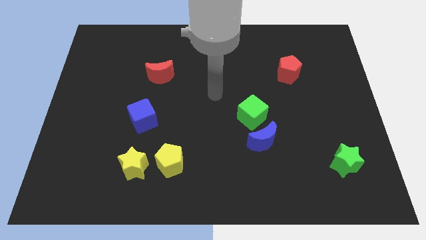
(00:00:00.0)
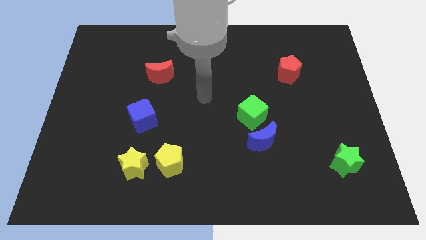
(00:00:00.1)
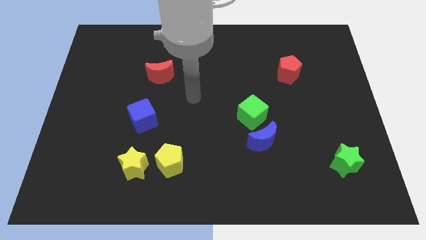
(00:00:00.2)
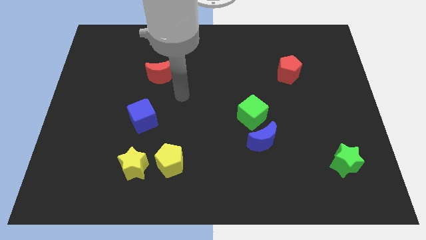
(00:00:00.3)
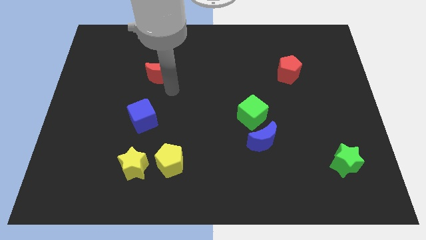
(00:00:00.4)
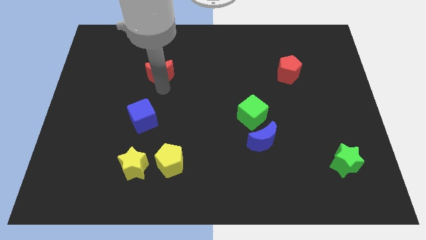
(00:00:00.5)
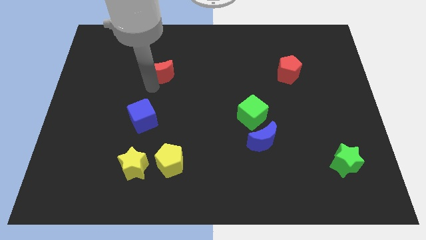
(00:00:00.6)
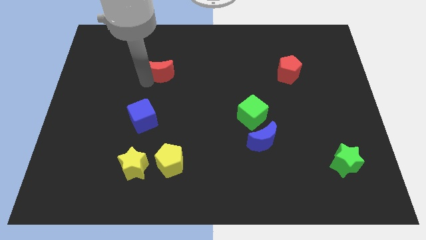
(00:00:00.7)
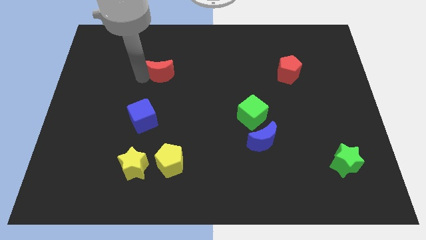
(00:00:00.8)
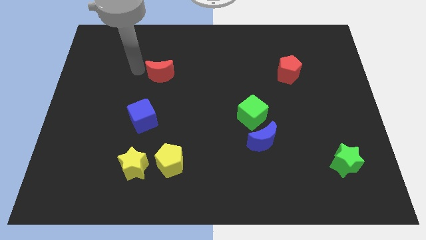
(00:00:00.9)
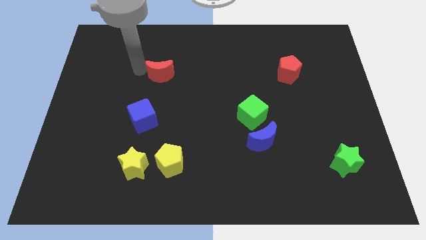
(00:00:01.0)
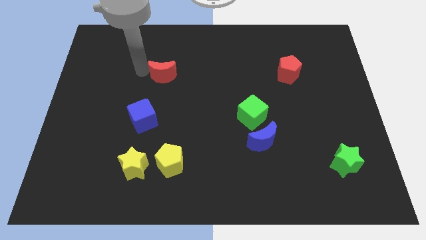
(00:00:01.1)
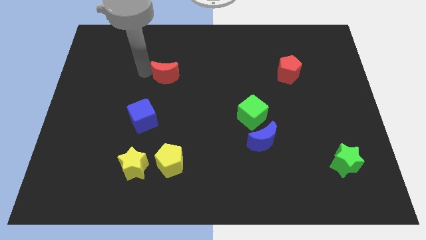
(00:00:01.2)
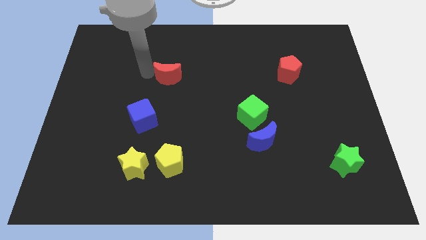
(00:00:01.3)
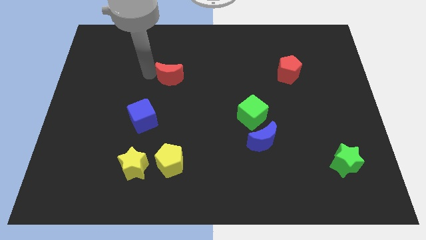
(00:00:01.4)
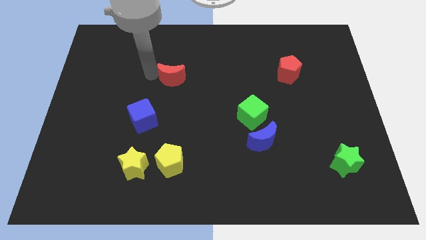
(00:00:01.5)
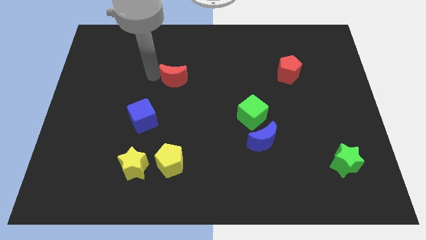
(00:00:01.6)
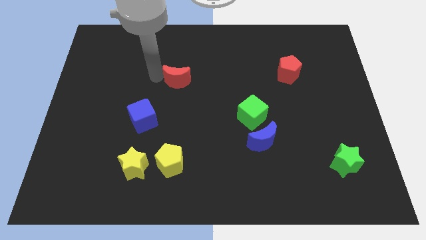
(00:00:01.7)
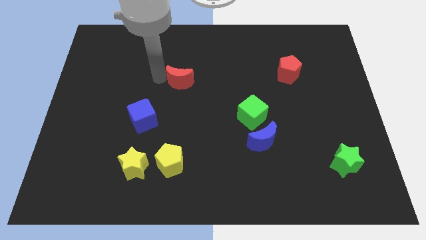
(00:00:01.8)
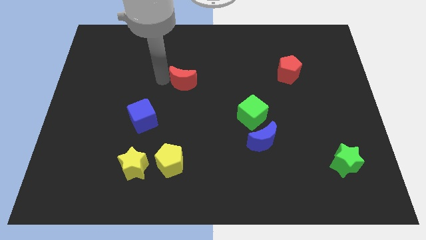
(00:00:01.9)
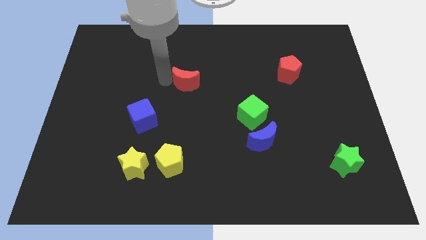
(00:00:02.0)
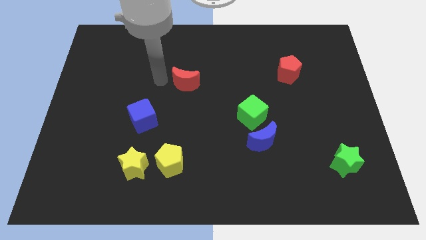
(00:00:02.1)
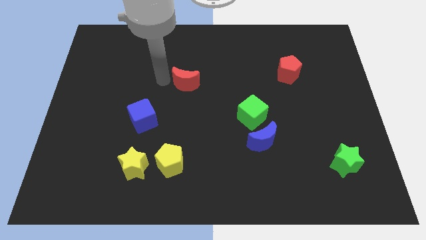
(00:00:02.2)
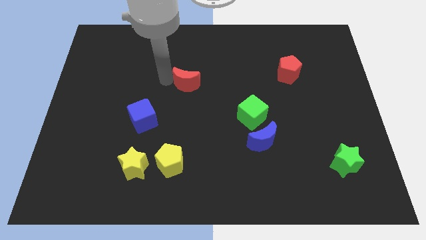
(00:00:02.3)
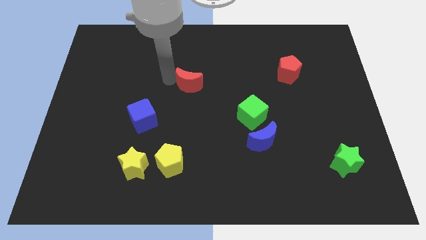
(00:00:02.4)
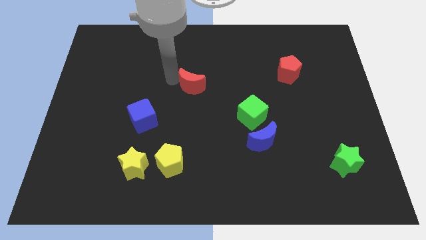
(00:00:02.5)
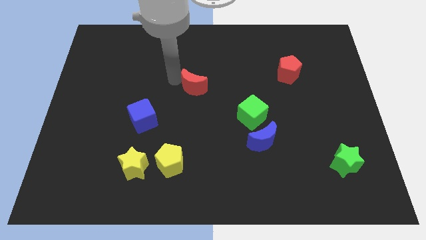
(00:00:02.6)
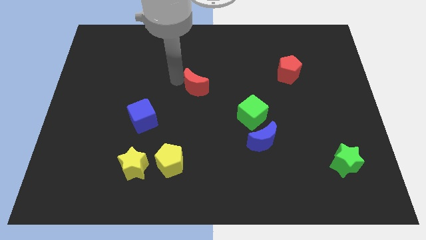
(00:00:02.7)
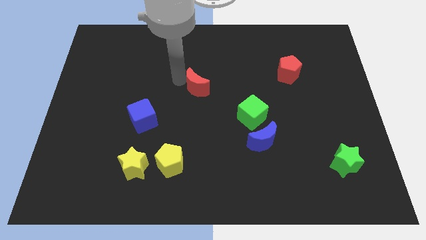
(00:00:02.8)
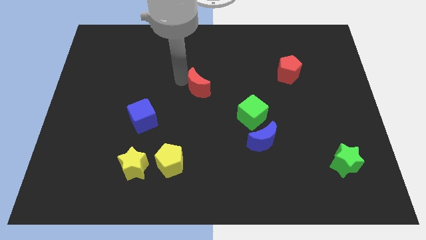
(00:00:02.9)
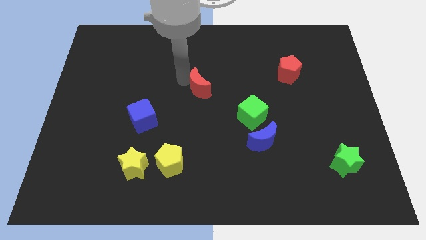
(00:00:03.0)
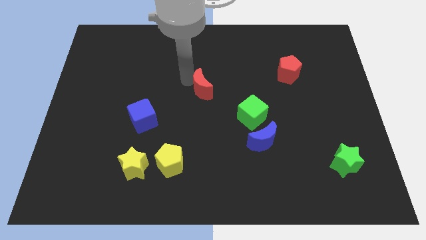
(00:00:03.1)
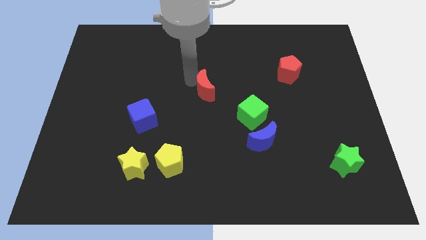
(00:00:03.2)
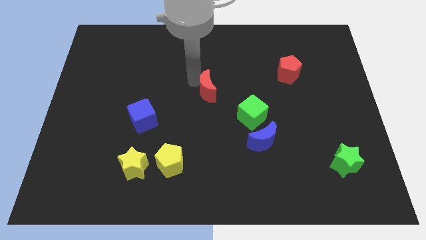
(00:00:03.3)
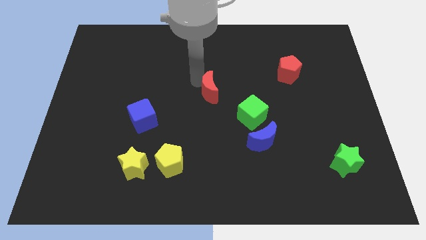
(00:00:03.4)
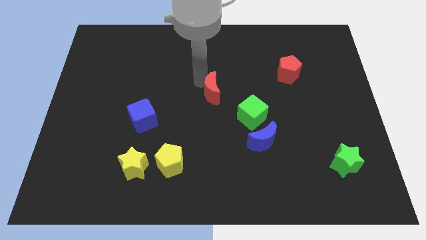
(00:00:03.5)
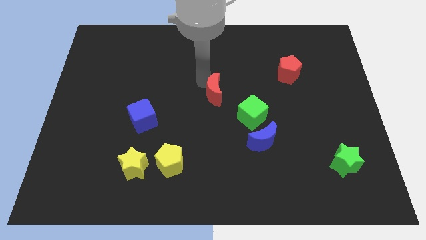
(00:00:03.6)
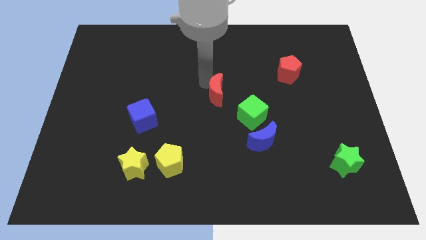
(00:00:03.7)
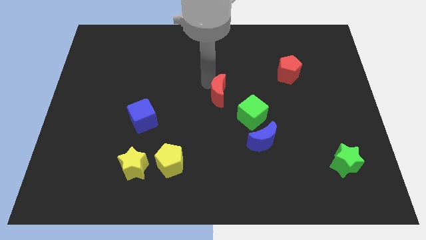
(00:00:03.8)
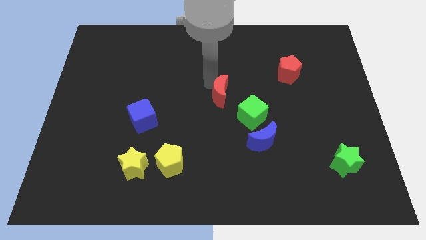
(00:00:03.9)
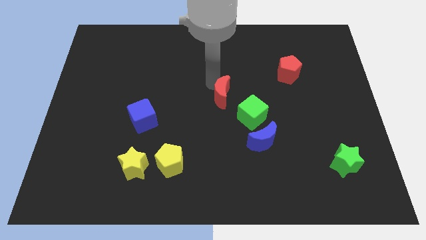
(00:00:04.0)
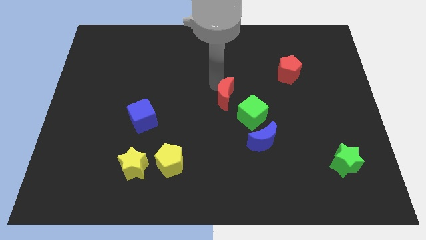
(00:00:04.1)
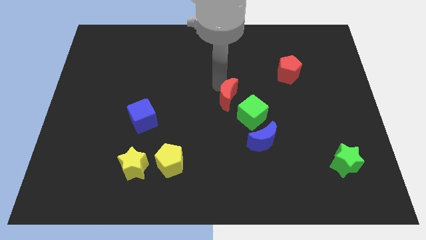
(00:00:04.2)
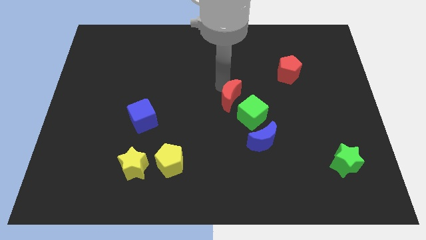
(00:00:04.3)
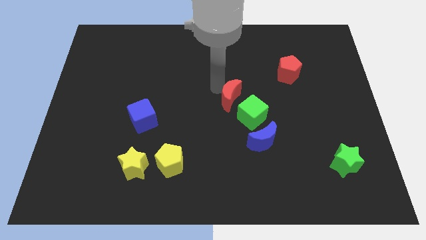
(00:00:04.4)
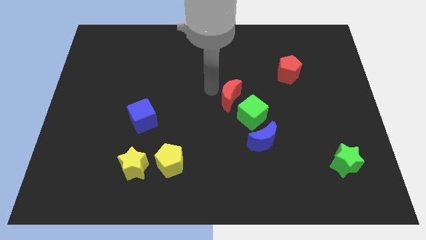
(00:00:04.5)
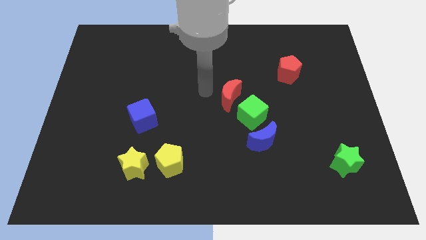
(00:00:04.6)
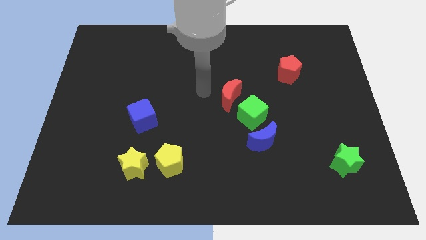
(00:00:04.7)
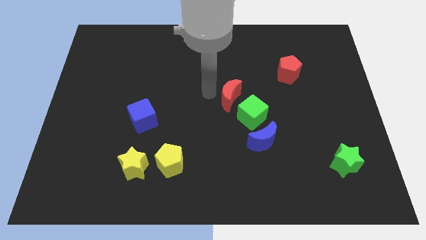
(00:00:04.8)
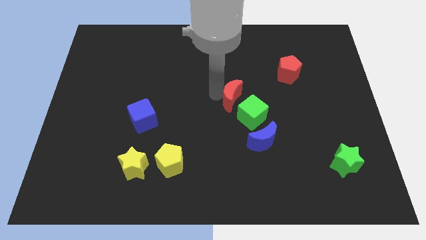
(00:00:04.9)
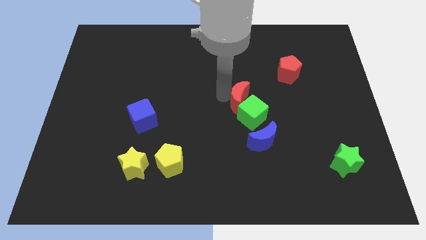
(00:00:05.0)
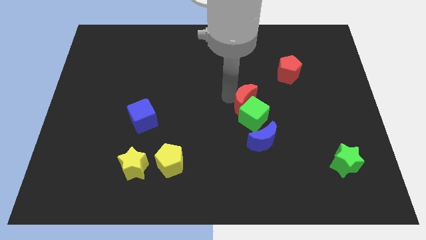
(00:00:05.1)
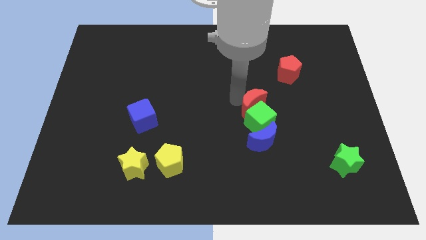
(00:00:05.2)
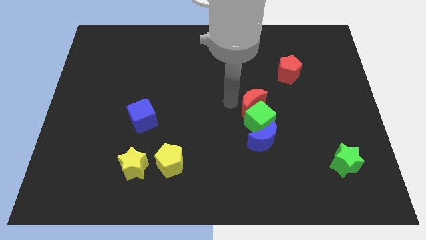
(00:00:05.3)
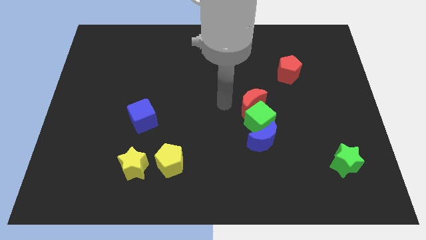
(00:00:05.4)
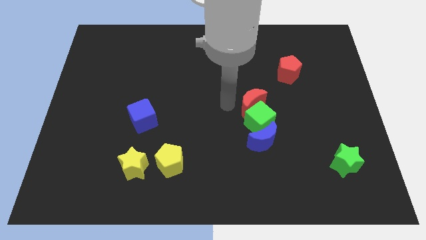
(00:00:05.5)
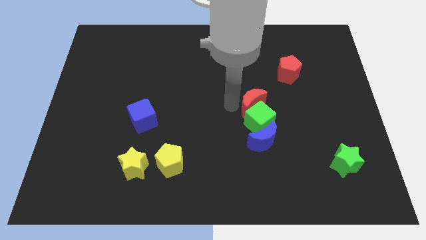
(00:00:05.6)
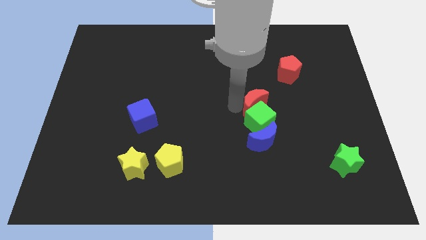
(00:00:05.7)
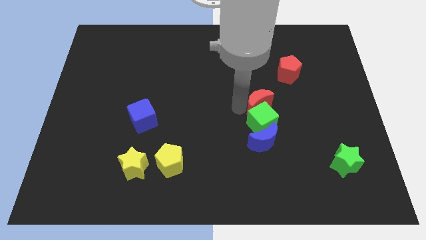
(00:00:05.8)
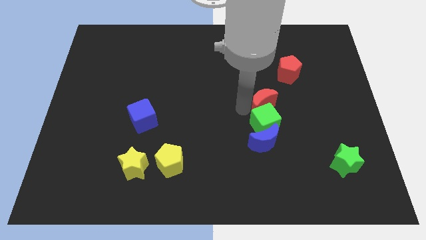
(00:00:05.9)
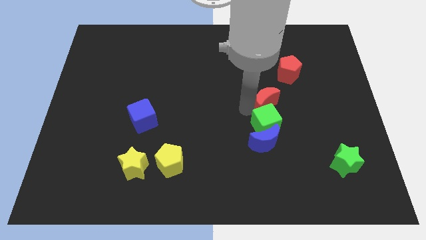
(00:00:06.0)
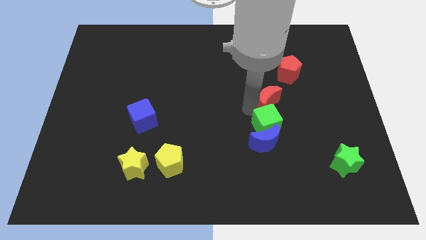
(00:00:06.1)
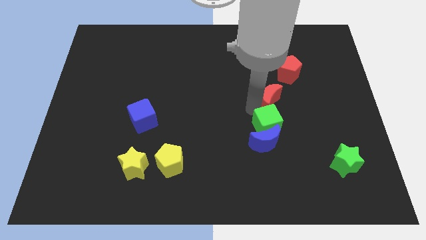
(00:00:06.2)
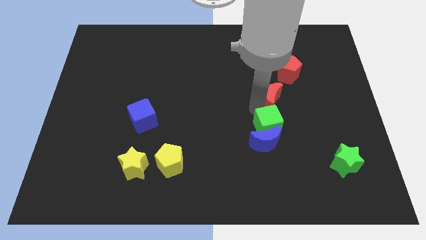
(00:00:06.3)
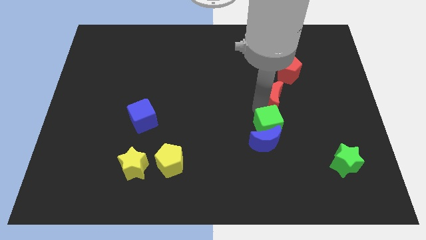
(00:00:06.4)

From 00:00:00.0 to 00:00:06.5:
push the red moon below the red pentagon

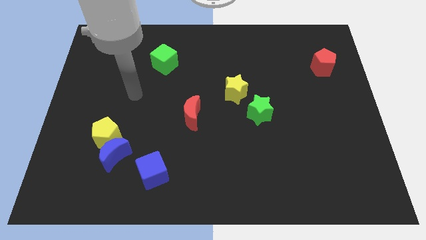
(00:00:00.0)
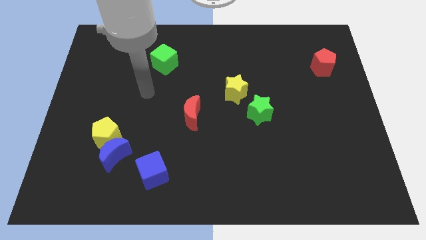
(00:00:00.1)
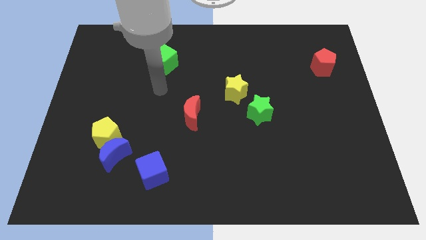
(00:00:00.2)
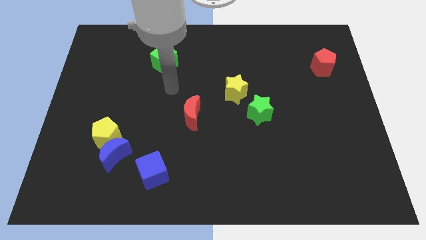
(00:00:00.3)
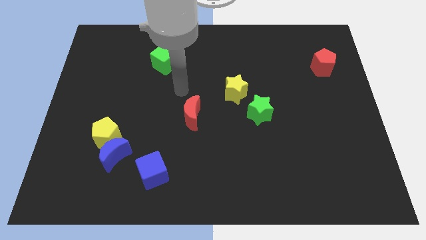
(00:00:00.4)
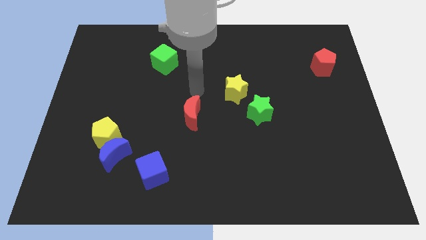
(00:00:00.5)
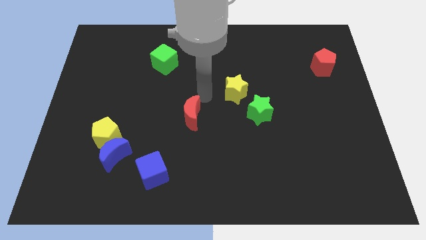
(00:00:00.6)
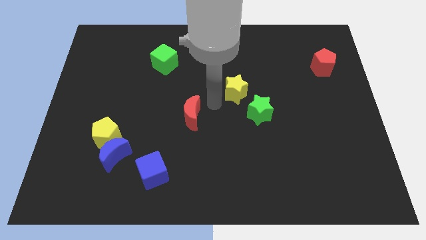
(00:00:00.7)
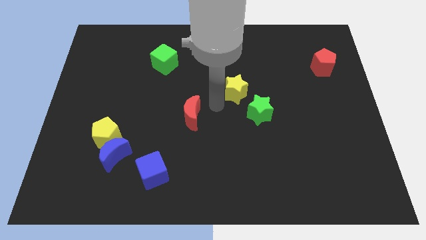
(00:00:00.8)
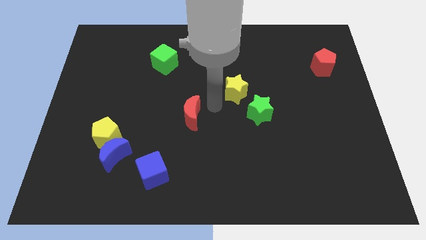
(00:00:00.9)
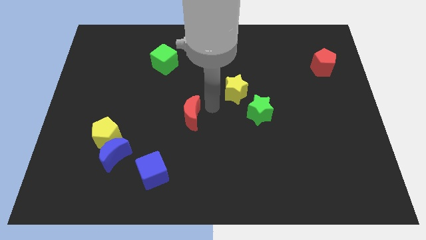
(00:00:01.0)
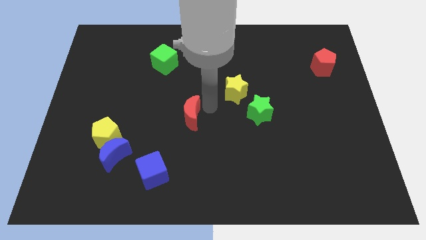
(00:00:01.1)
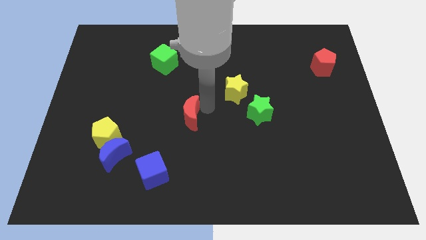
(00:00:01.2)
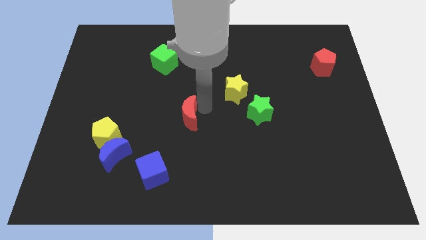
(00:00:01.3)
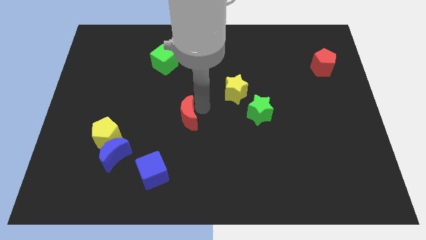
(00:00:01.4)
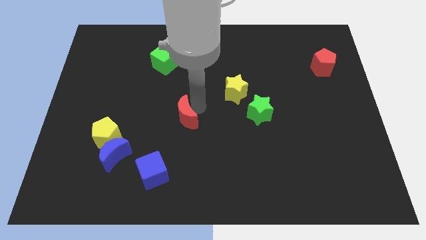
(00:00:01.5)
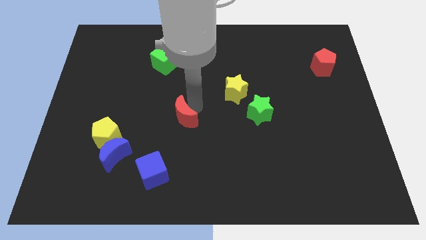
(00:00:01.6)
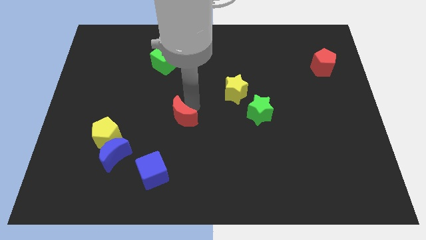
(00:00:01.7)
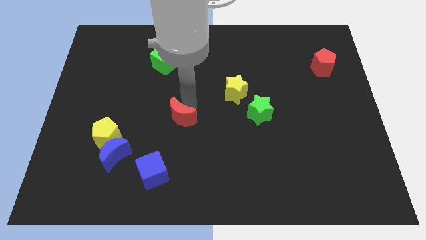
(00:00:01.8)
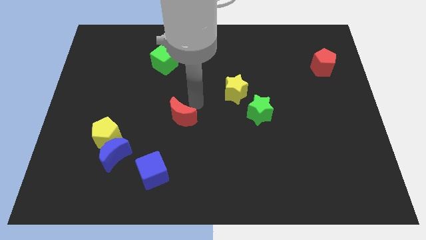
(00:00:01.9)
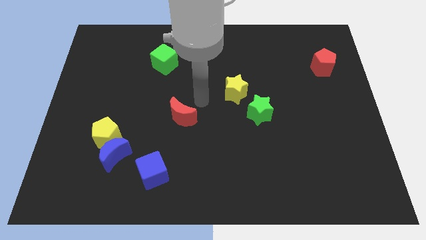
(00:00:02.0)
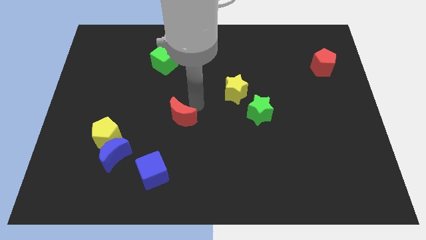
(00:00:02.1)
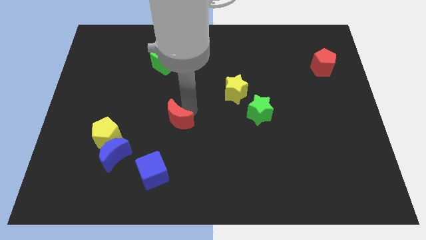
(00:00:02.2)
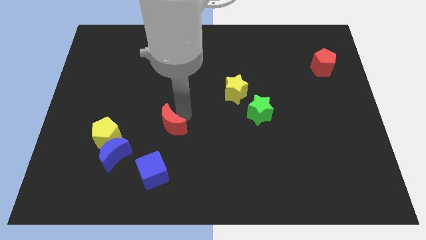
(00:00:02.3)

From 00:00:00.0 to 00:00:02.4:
put the red moon just right of the yellow pentagon
